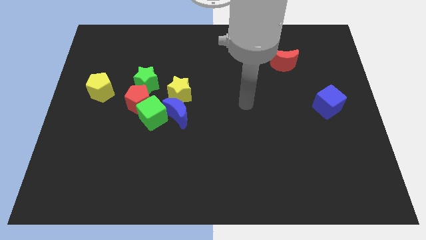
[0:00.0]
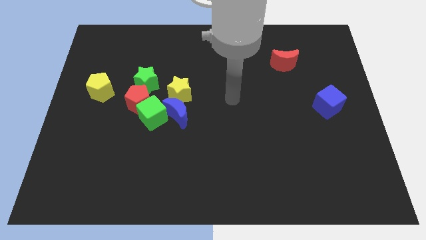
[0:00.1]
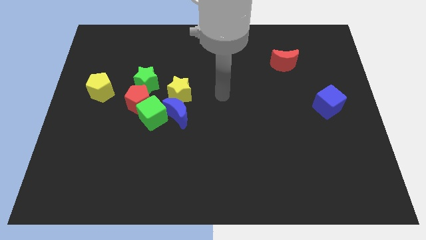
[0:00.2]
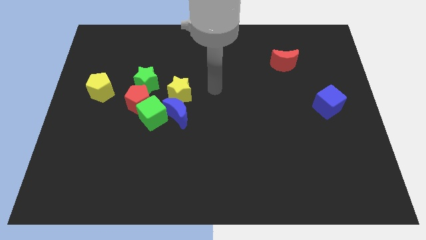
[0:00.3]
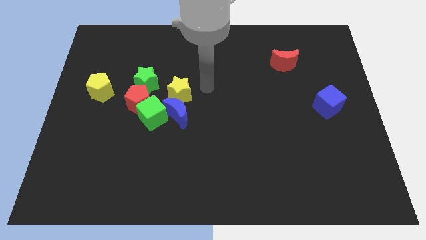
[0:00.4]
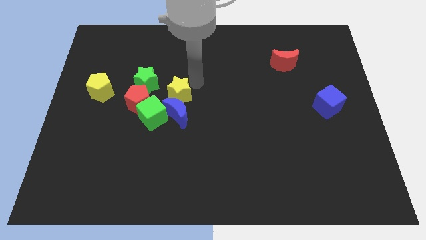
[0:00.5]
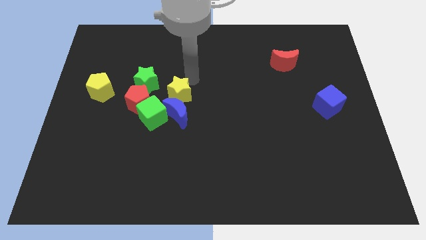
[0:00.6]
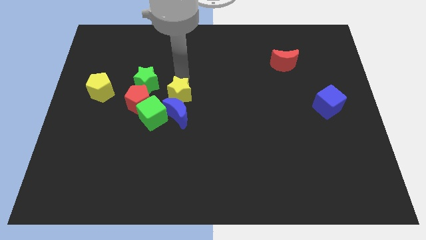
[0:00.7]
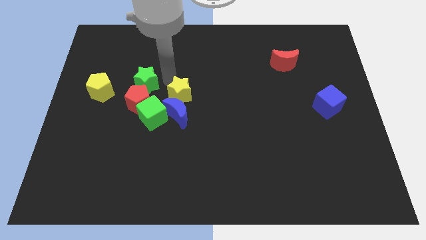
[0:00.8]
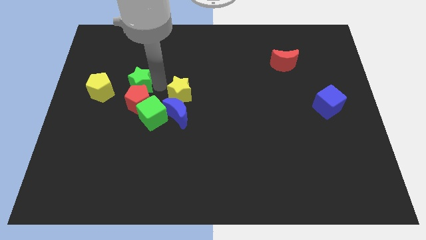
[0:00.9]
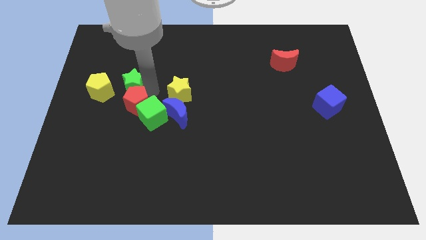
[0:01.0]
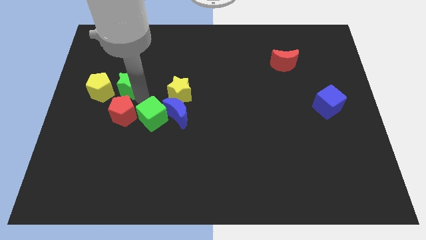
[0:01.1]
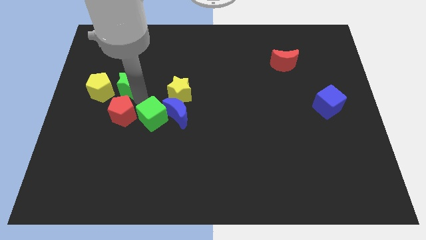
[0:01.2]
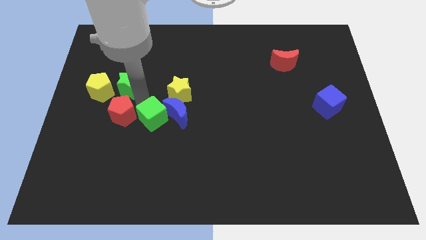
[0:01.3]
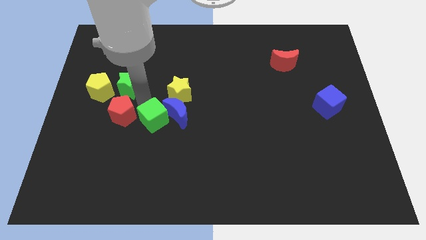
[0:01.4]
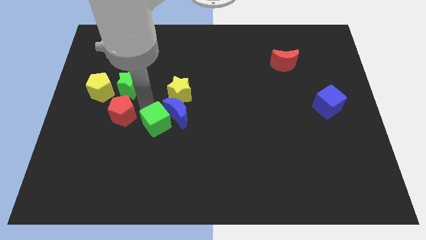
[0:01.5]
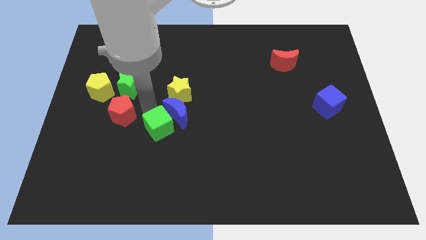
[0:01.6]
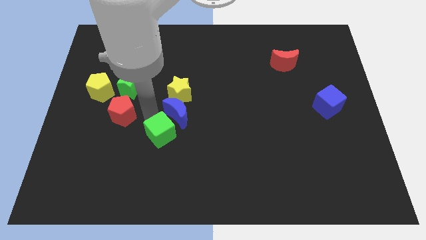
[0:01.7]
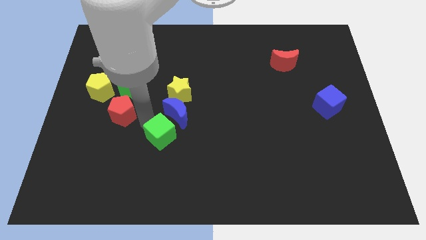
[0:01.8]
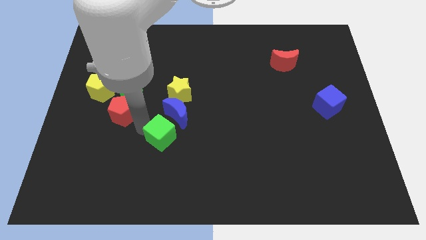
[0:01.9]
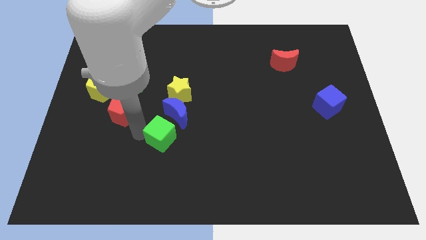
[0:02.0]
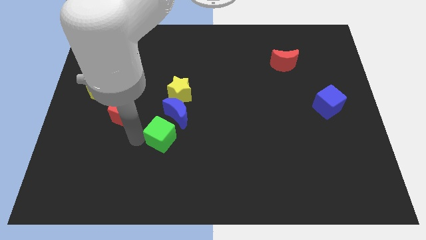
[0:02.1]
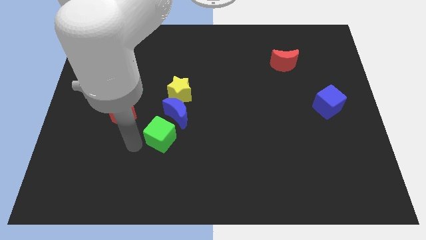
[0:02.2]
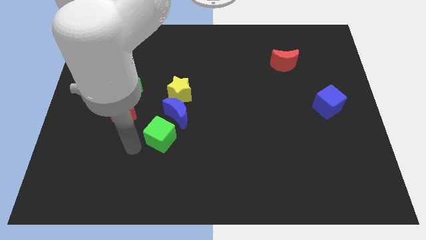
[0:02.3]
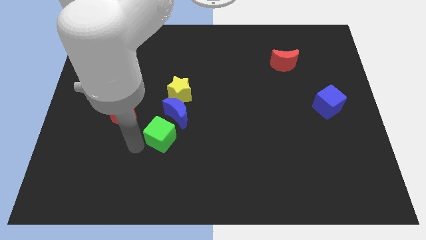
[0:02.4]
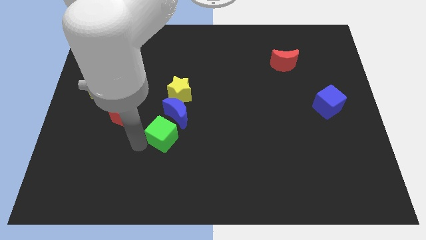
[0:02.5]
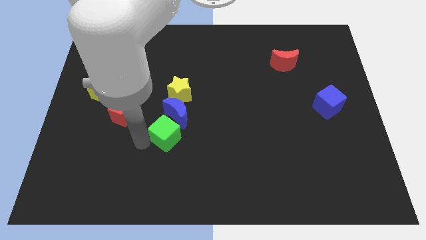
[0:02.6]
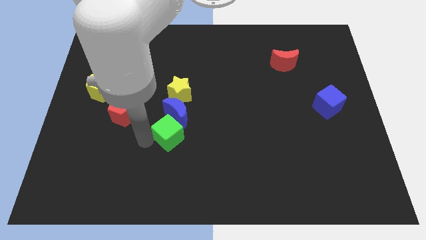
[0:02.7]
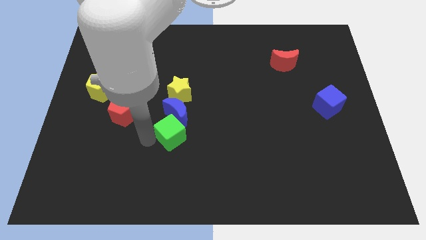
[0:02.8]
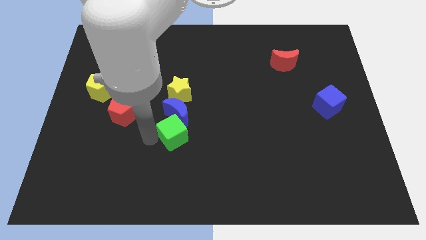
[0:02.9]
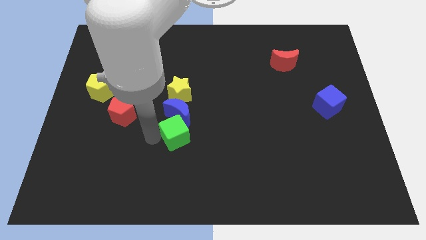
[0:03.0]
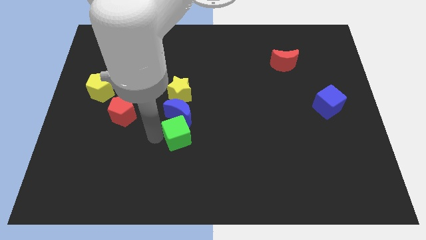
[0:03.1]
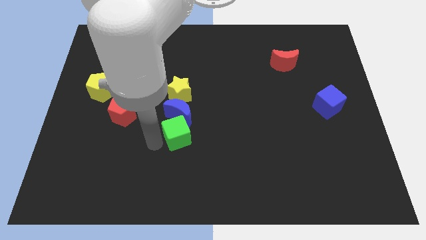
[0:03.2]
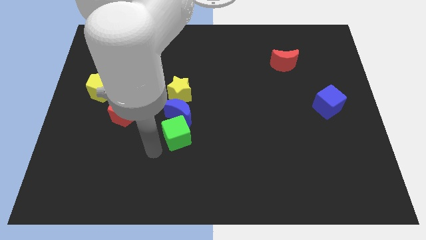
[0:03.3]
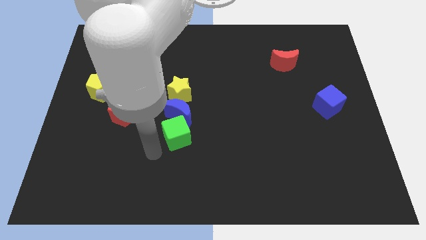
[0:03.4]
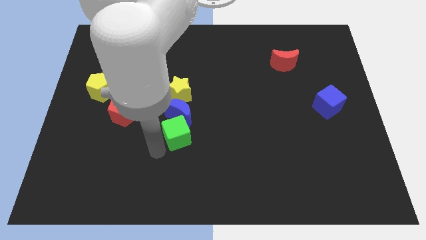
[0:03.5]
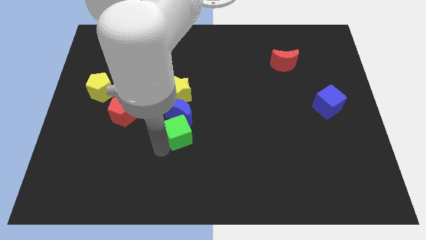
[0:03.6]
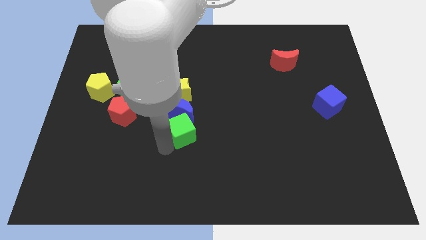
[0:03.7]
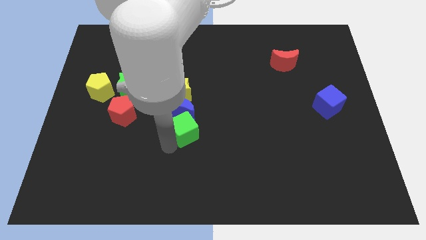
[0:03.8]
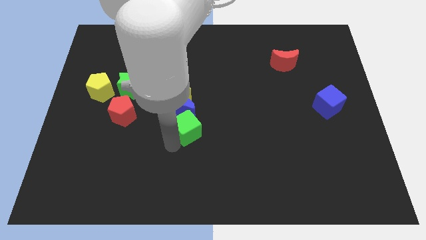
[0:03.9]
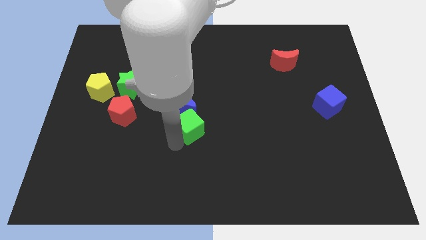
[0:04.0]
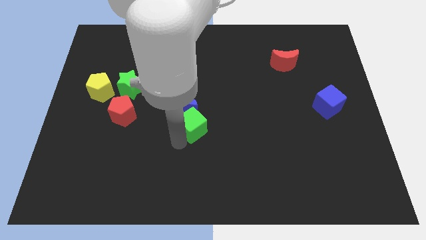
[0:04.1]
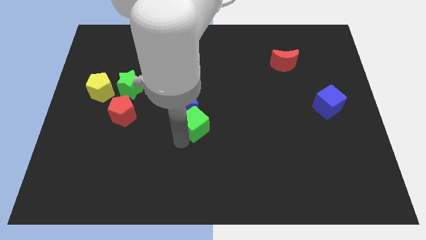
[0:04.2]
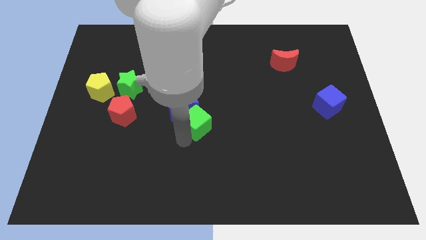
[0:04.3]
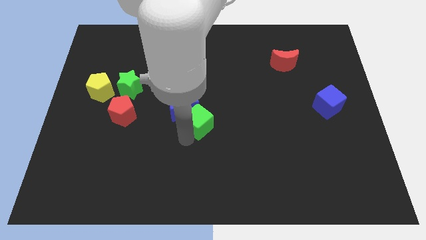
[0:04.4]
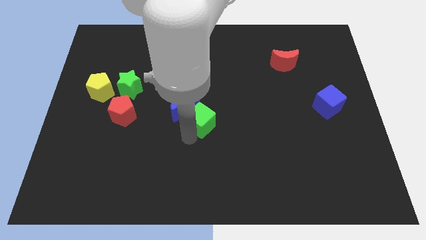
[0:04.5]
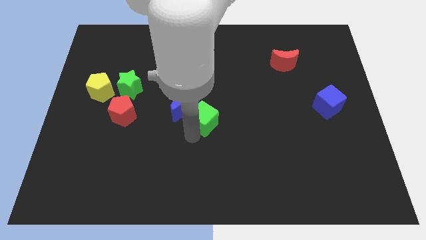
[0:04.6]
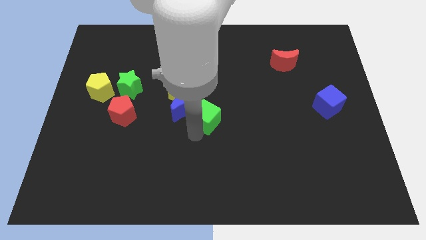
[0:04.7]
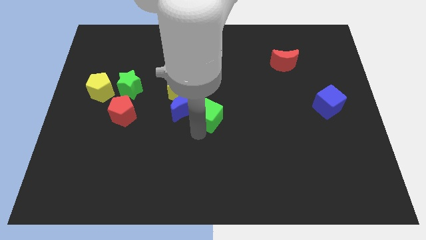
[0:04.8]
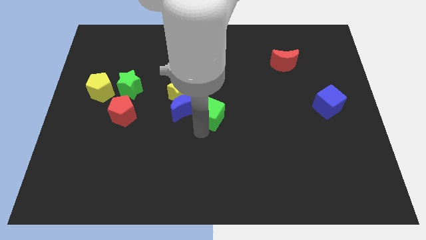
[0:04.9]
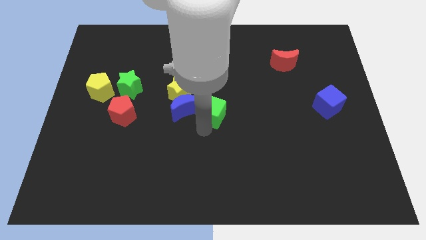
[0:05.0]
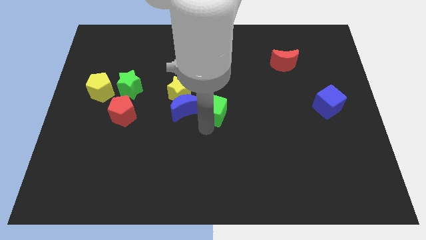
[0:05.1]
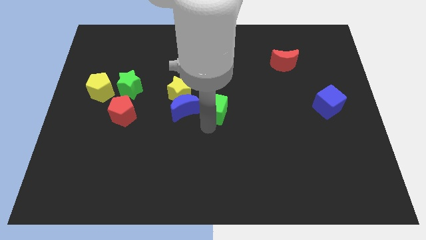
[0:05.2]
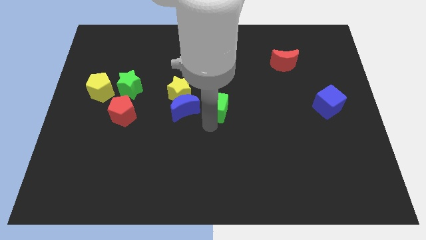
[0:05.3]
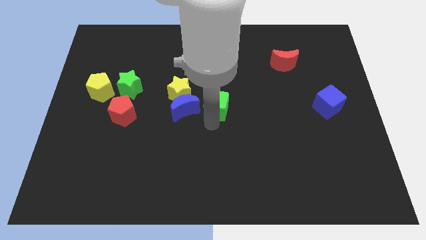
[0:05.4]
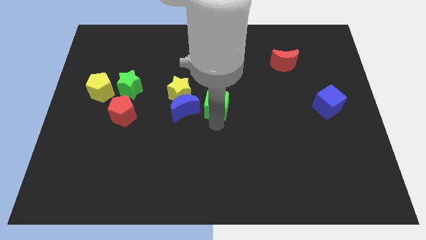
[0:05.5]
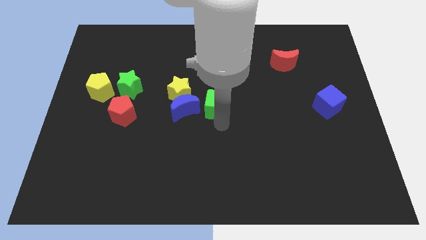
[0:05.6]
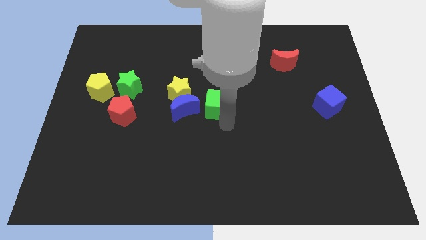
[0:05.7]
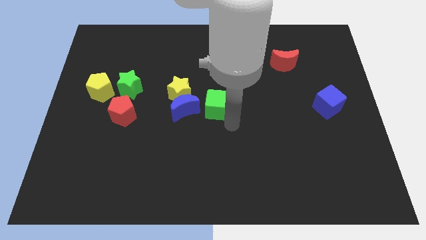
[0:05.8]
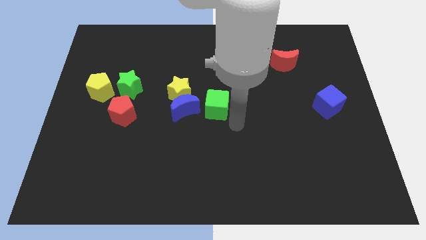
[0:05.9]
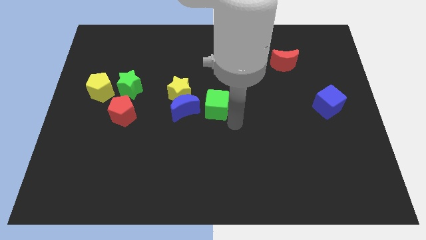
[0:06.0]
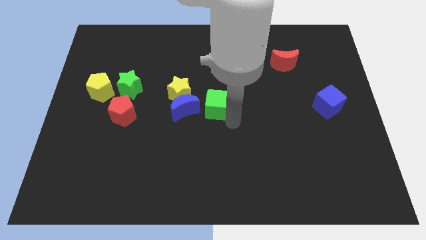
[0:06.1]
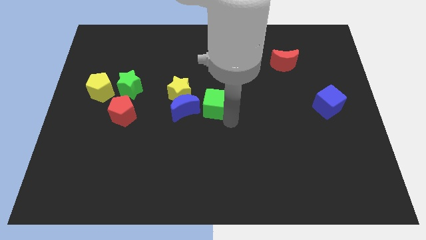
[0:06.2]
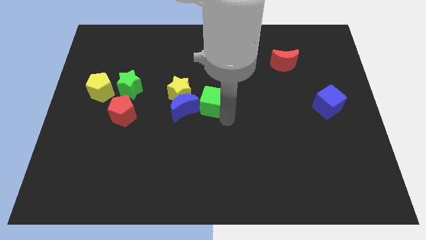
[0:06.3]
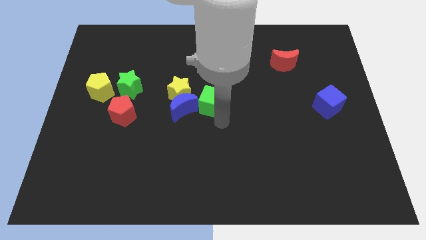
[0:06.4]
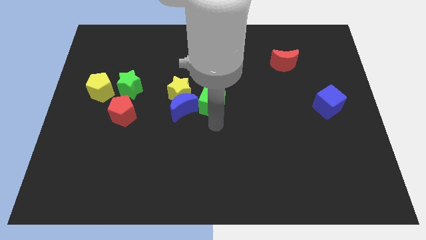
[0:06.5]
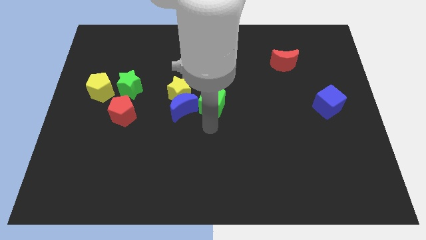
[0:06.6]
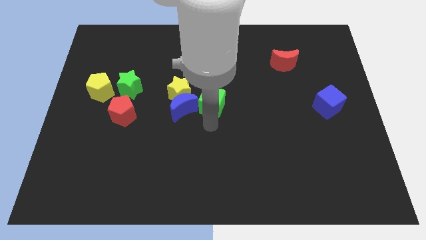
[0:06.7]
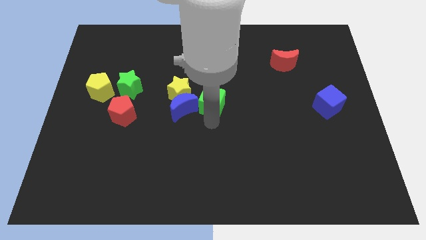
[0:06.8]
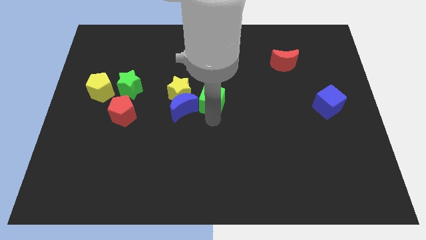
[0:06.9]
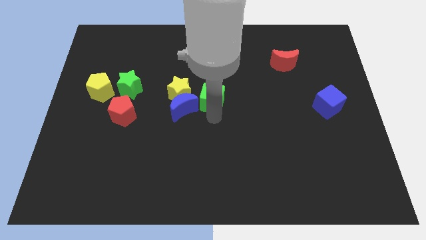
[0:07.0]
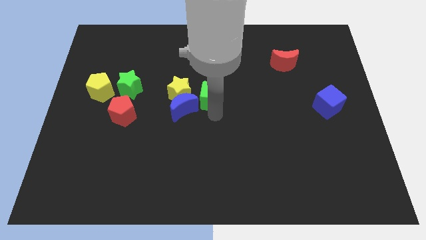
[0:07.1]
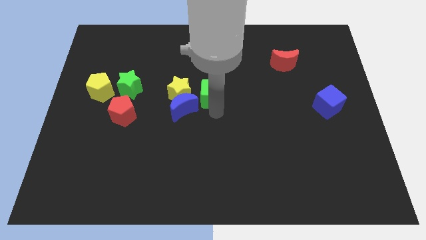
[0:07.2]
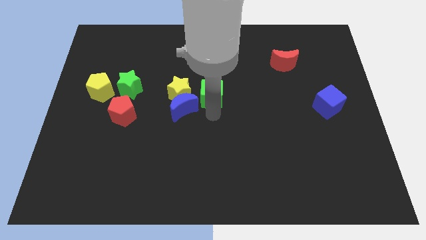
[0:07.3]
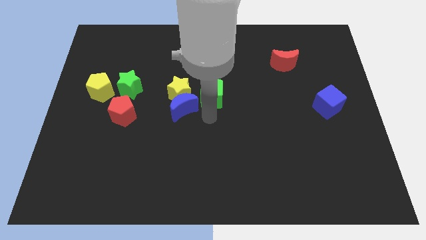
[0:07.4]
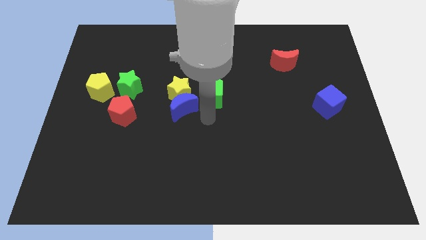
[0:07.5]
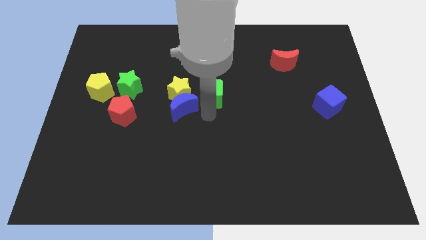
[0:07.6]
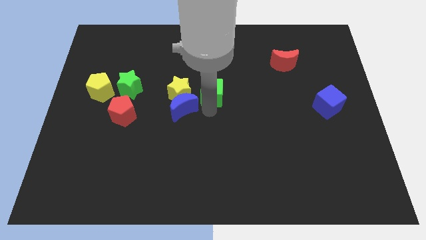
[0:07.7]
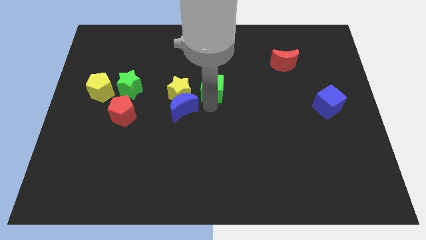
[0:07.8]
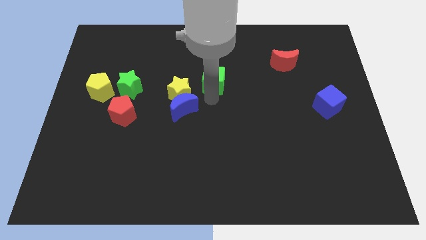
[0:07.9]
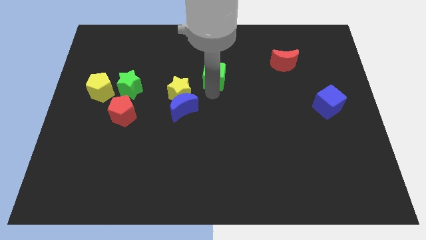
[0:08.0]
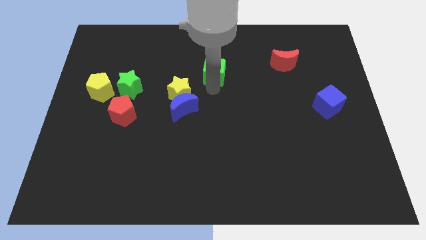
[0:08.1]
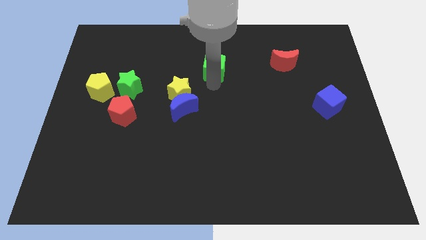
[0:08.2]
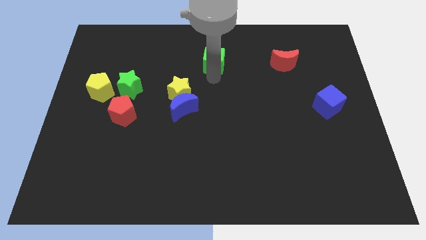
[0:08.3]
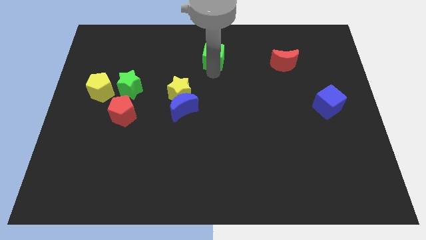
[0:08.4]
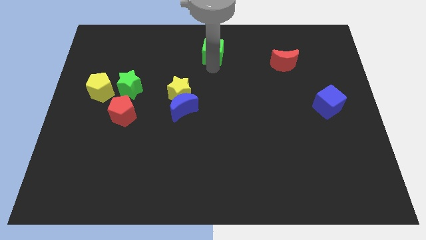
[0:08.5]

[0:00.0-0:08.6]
slide the green cube to the top side
